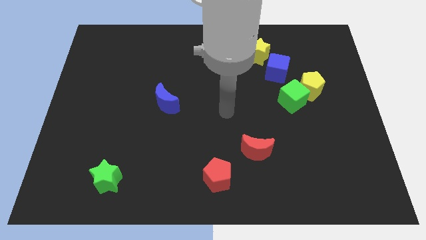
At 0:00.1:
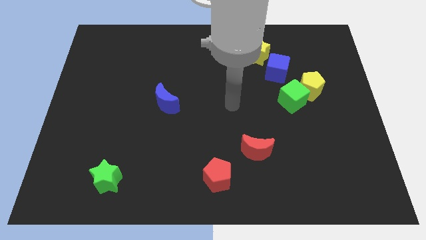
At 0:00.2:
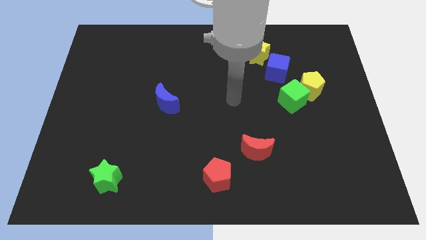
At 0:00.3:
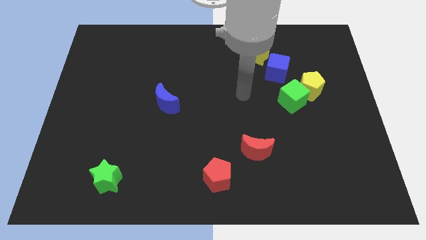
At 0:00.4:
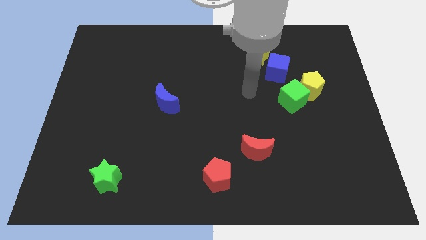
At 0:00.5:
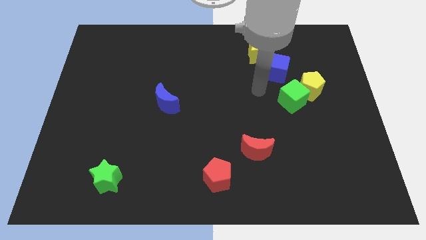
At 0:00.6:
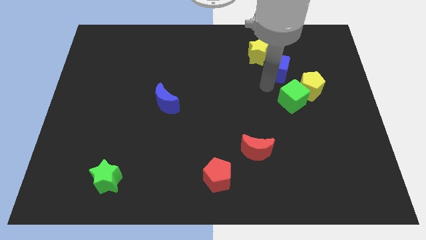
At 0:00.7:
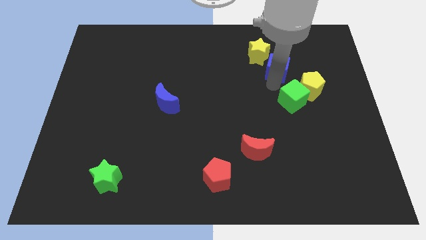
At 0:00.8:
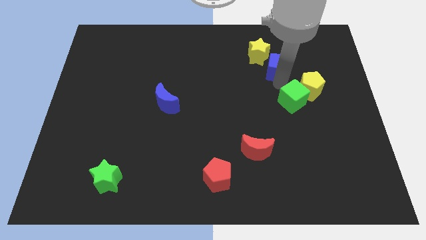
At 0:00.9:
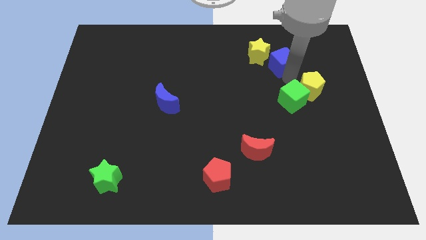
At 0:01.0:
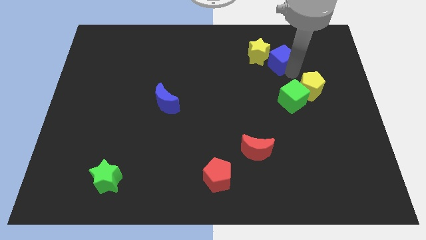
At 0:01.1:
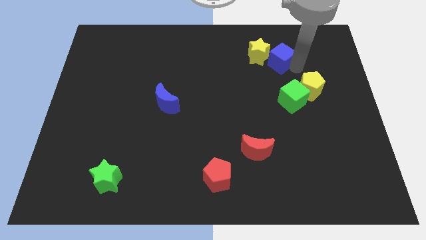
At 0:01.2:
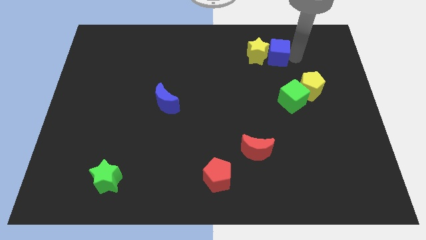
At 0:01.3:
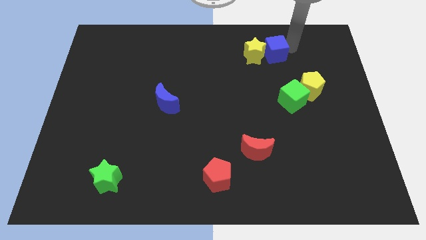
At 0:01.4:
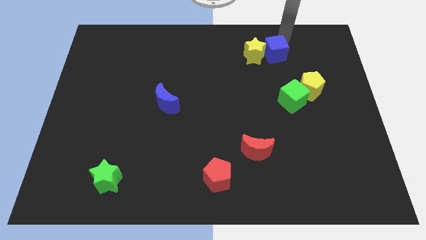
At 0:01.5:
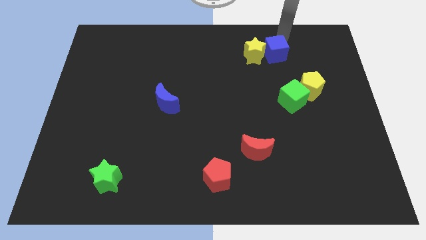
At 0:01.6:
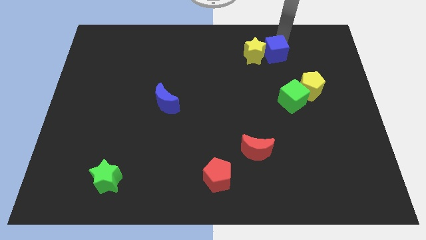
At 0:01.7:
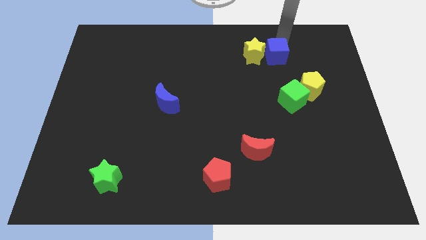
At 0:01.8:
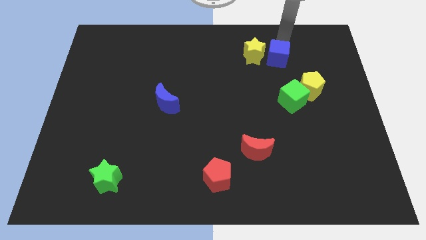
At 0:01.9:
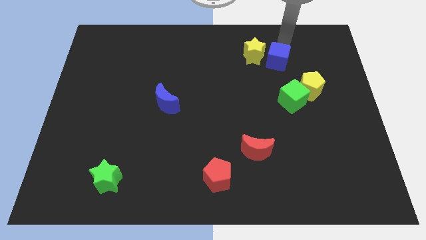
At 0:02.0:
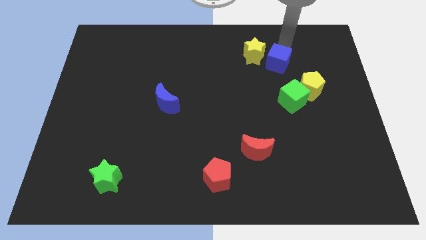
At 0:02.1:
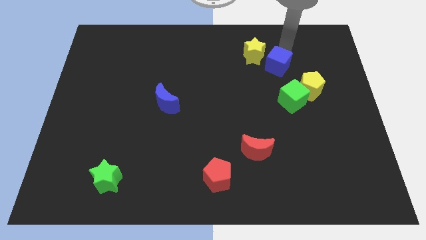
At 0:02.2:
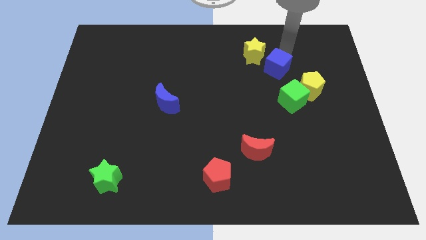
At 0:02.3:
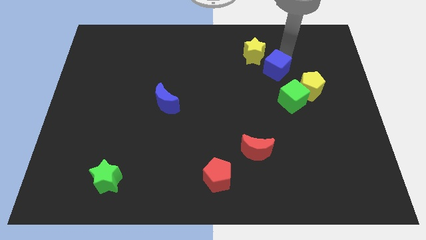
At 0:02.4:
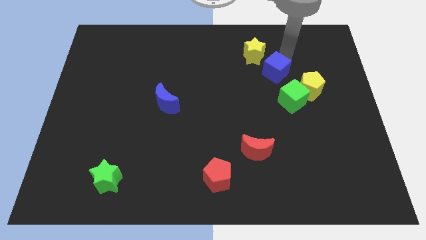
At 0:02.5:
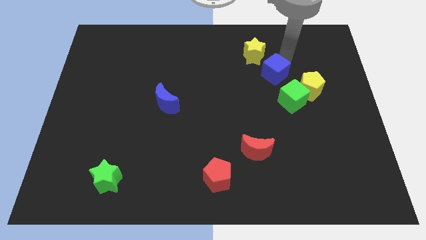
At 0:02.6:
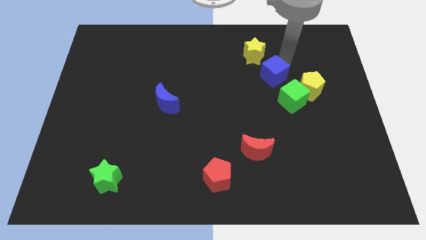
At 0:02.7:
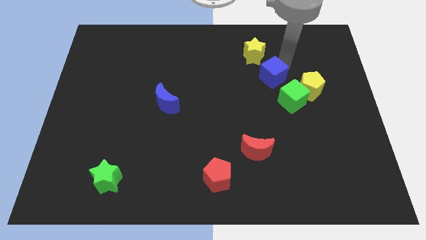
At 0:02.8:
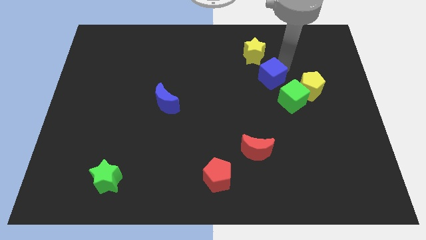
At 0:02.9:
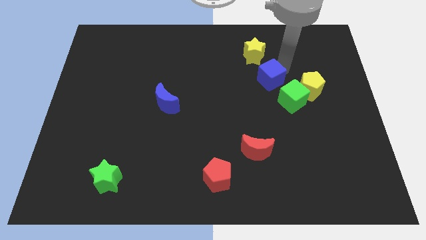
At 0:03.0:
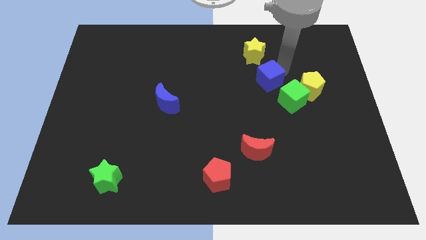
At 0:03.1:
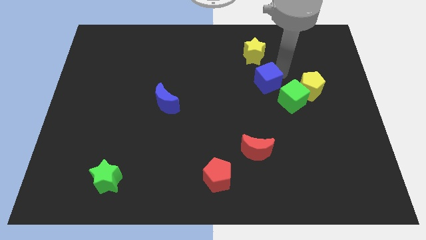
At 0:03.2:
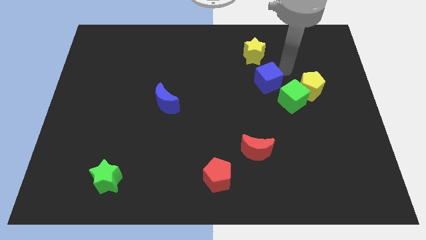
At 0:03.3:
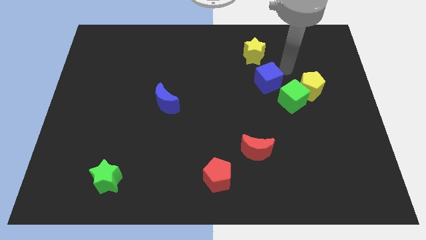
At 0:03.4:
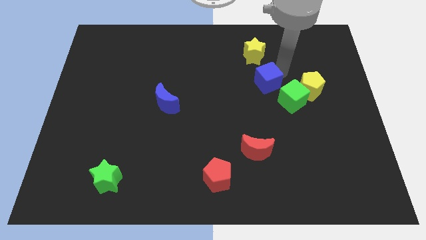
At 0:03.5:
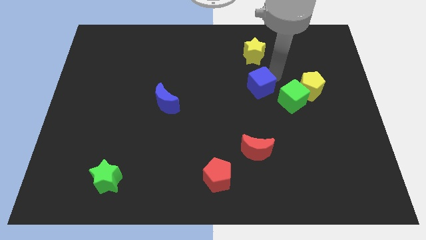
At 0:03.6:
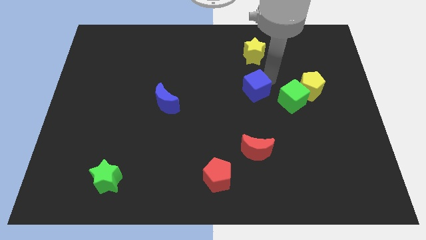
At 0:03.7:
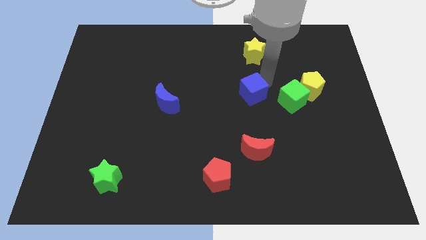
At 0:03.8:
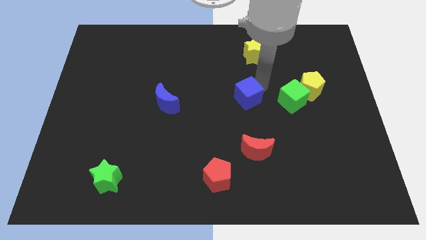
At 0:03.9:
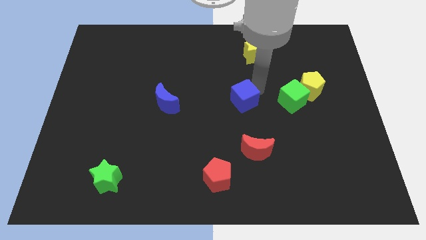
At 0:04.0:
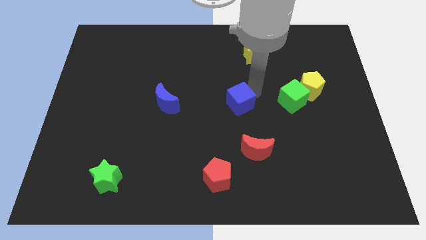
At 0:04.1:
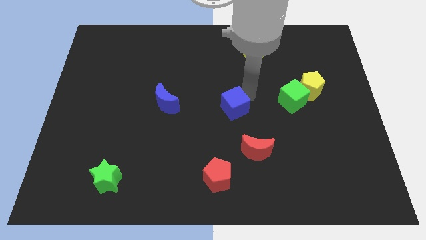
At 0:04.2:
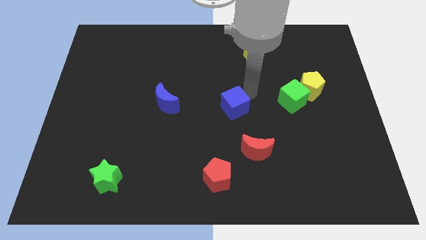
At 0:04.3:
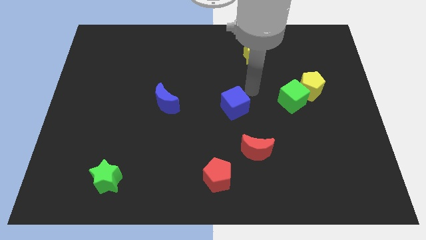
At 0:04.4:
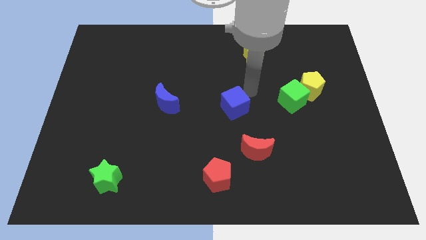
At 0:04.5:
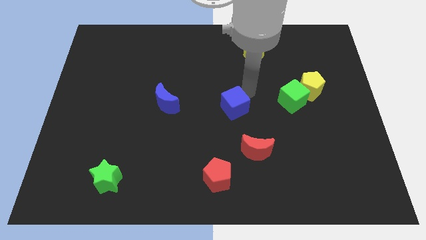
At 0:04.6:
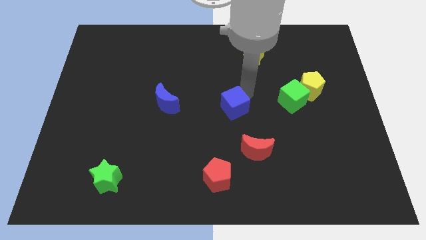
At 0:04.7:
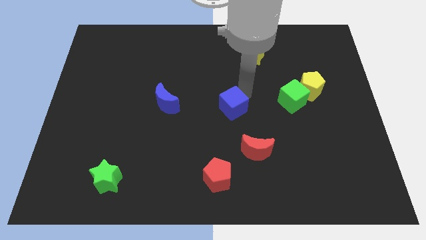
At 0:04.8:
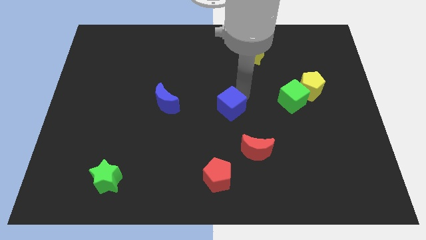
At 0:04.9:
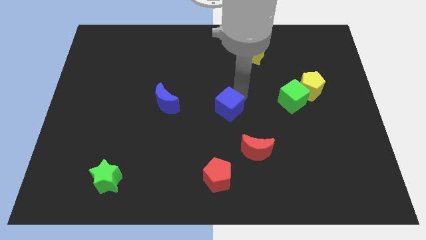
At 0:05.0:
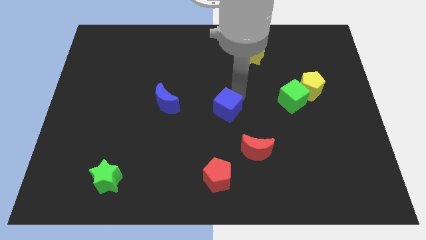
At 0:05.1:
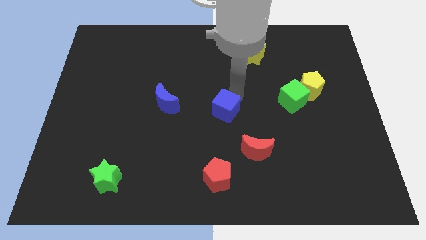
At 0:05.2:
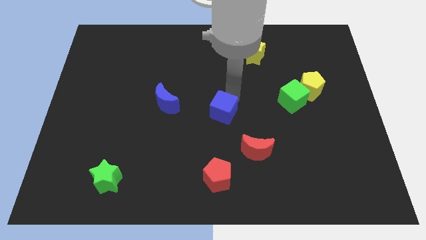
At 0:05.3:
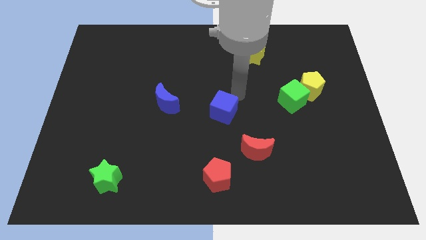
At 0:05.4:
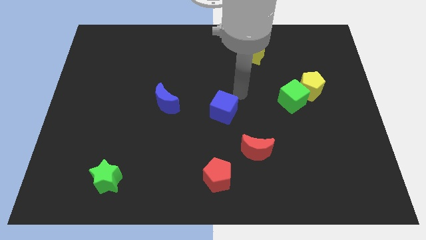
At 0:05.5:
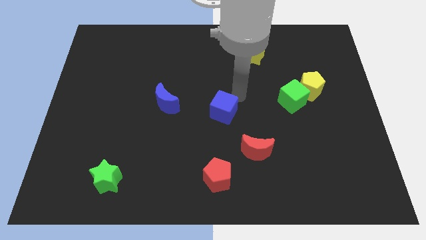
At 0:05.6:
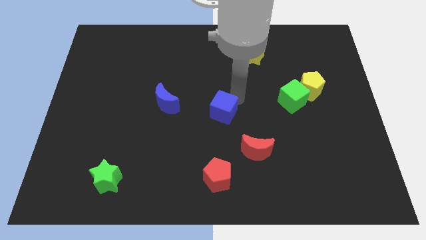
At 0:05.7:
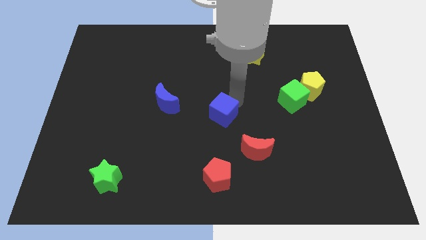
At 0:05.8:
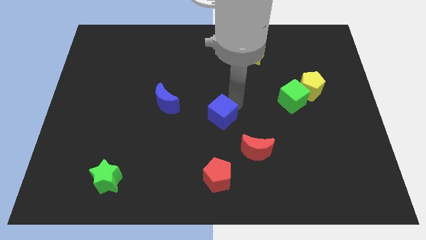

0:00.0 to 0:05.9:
slide the blue cube down and to the left diagonally

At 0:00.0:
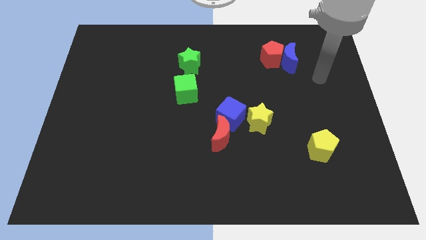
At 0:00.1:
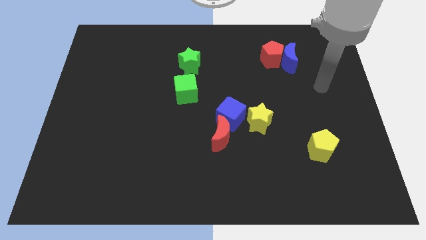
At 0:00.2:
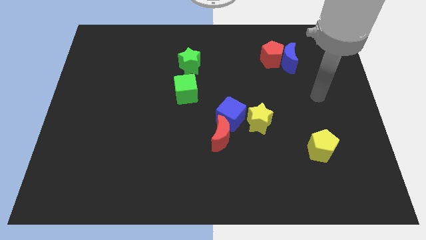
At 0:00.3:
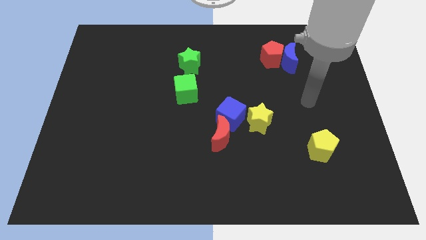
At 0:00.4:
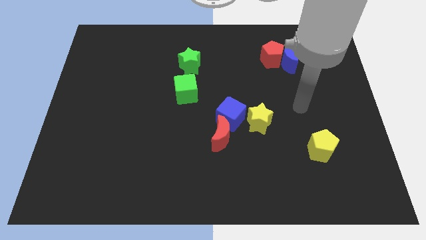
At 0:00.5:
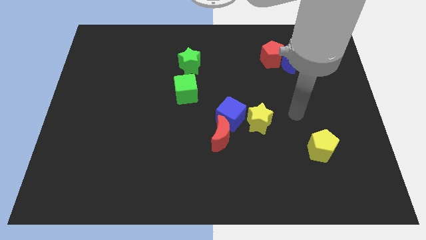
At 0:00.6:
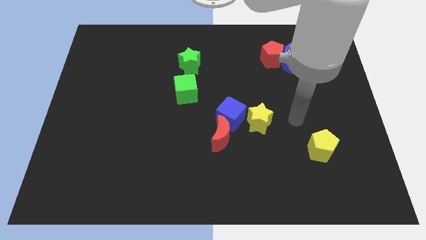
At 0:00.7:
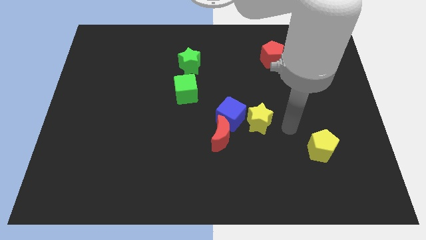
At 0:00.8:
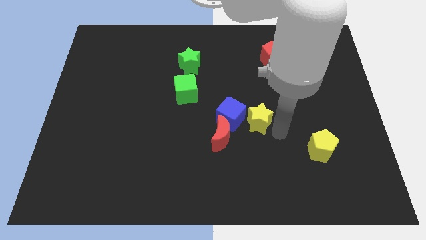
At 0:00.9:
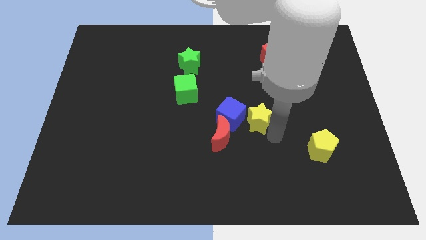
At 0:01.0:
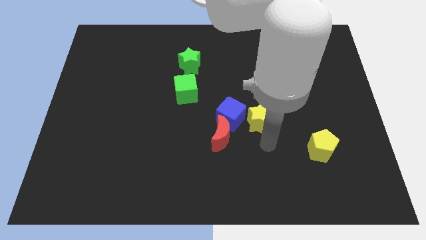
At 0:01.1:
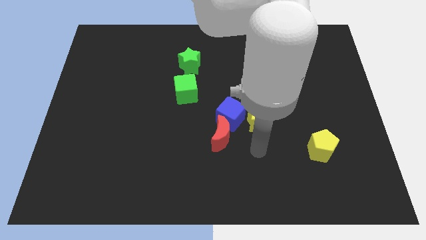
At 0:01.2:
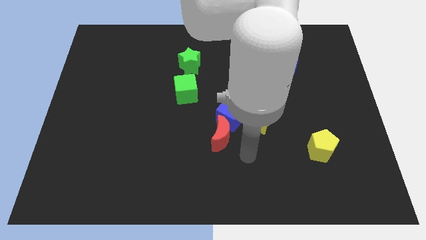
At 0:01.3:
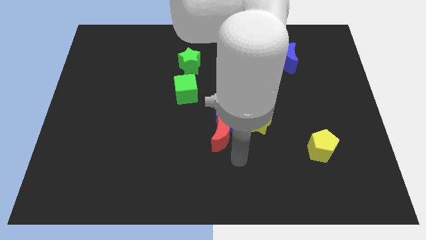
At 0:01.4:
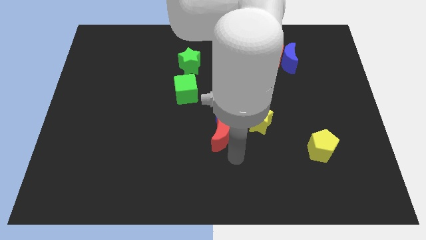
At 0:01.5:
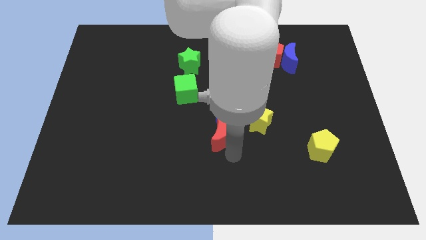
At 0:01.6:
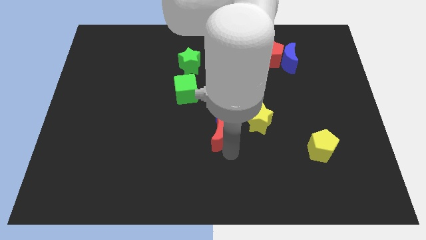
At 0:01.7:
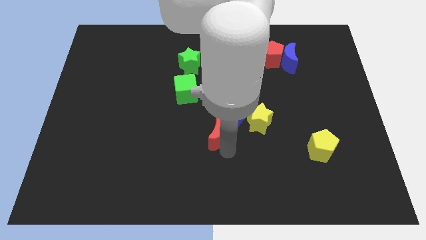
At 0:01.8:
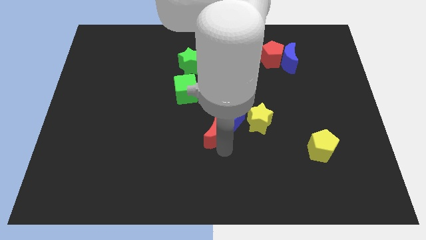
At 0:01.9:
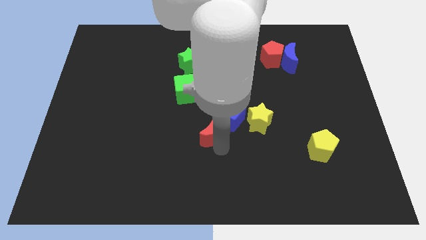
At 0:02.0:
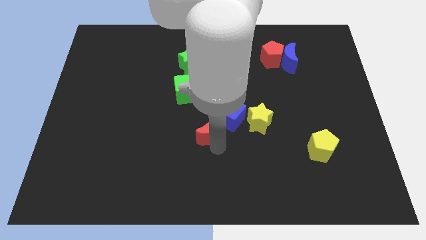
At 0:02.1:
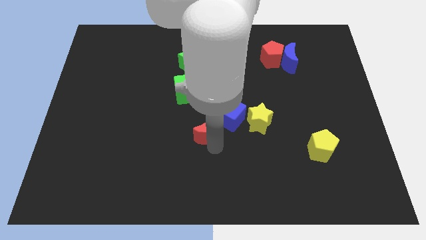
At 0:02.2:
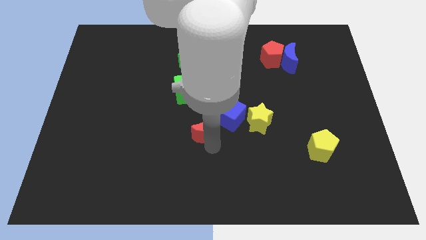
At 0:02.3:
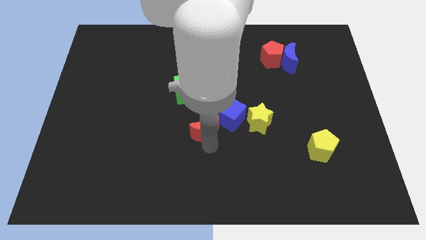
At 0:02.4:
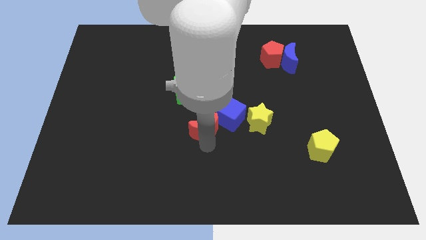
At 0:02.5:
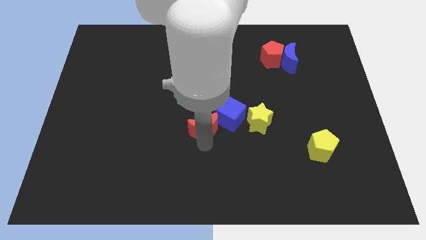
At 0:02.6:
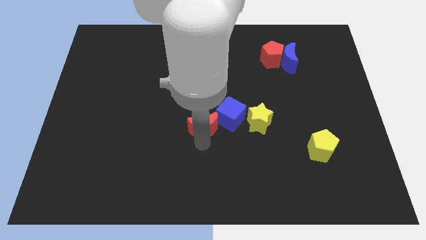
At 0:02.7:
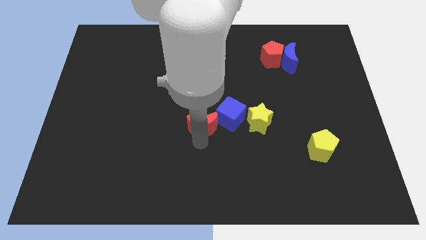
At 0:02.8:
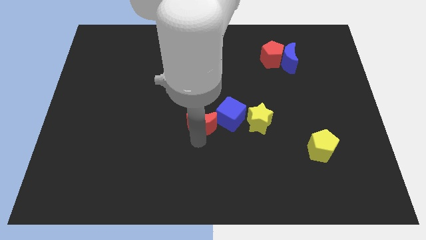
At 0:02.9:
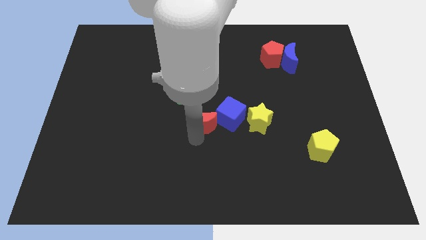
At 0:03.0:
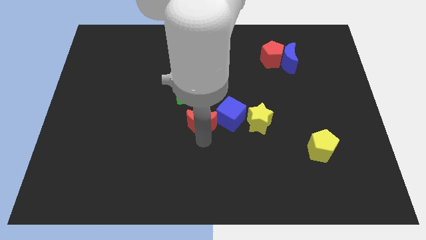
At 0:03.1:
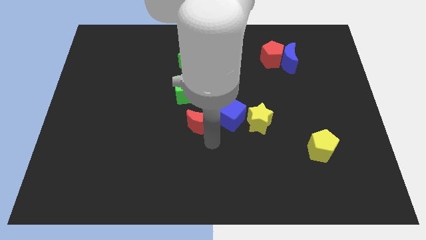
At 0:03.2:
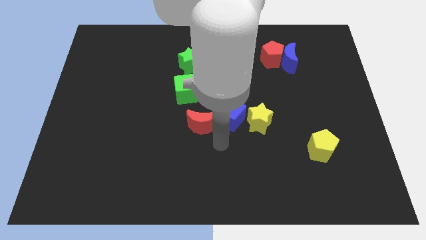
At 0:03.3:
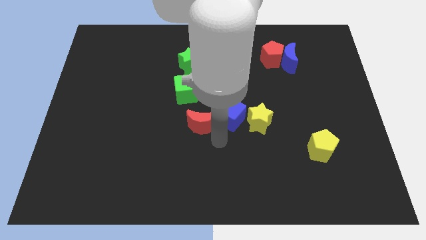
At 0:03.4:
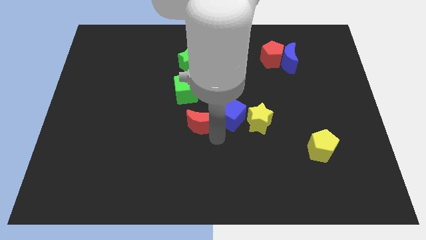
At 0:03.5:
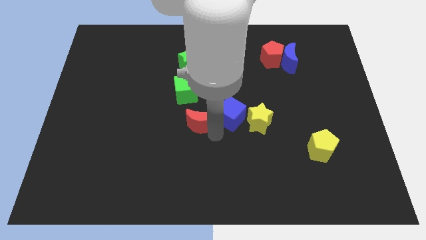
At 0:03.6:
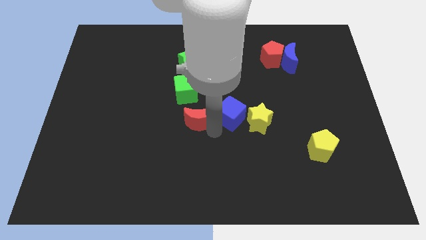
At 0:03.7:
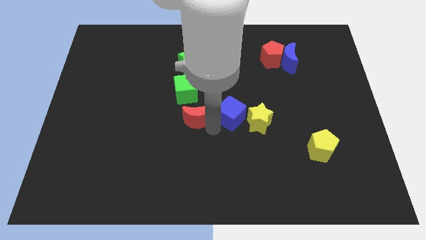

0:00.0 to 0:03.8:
push the red moon diagonally up and to the left a bit
